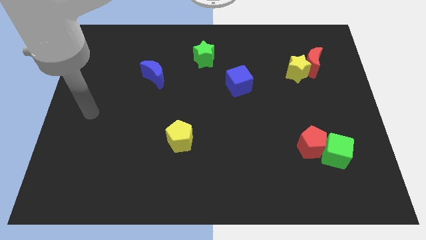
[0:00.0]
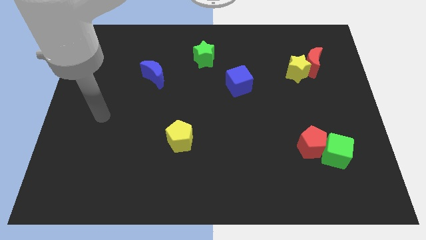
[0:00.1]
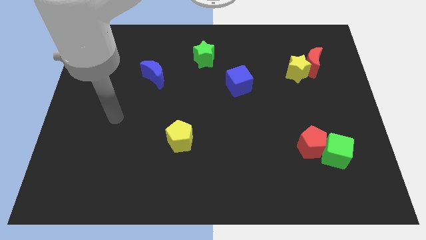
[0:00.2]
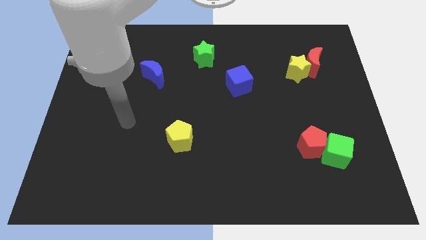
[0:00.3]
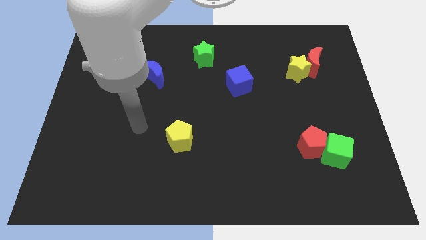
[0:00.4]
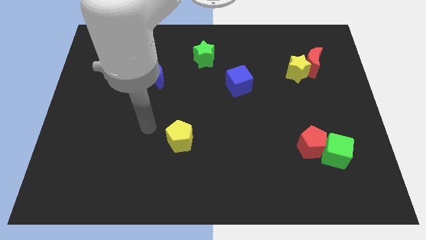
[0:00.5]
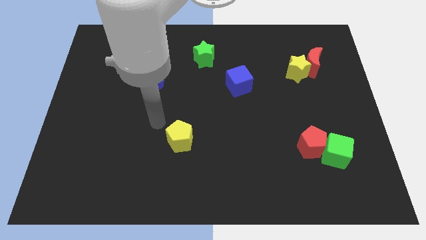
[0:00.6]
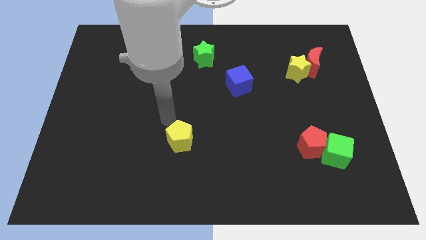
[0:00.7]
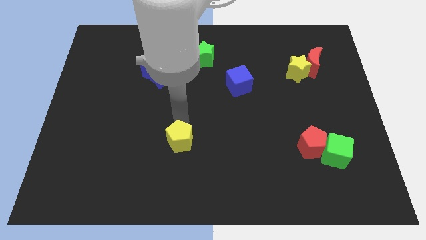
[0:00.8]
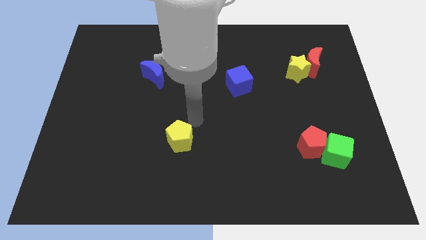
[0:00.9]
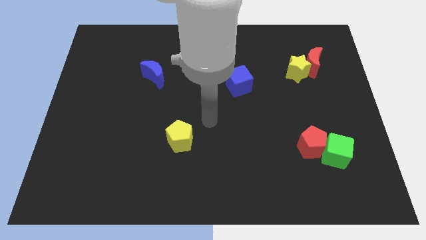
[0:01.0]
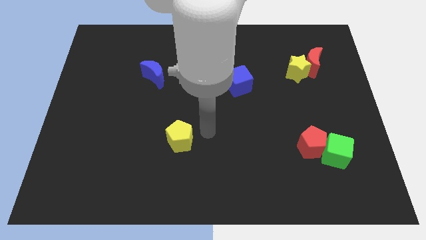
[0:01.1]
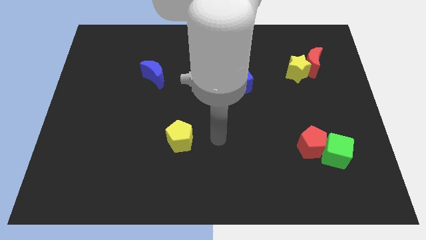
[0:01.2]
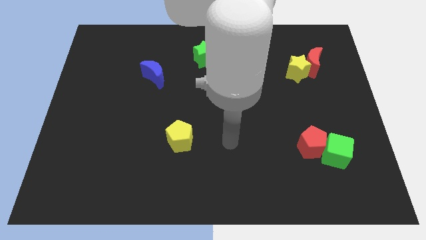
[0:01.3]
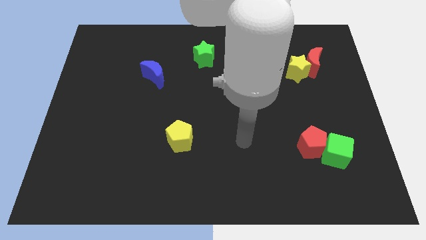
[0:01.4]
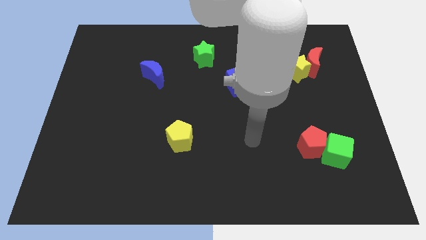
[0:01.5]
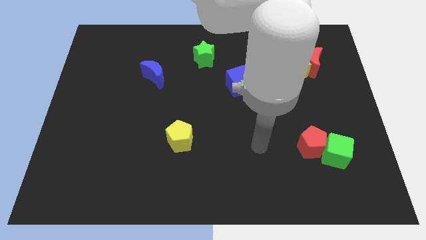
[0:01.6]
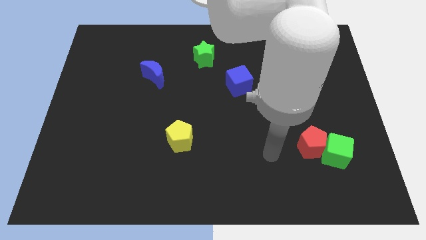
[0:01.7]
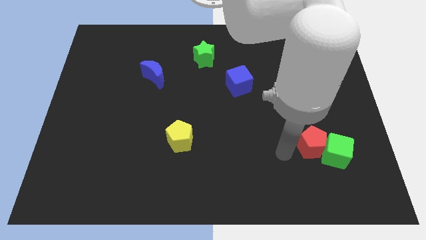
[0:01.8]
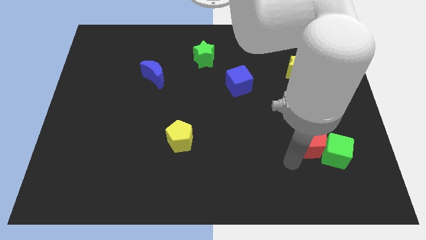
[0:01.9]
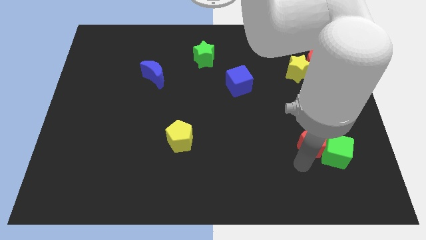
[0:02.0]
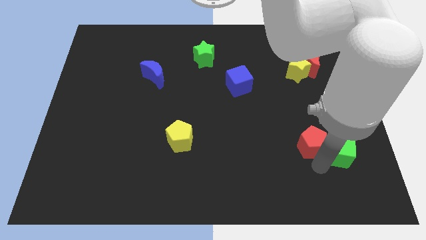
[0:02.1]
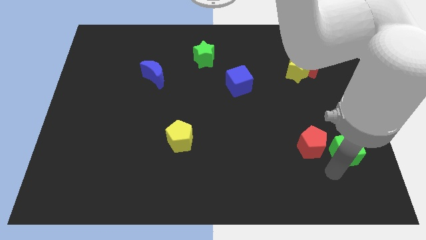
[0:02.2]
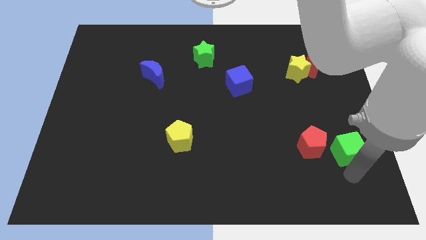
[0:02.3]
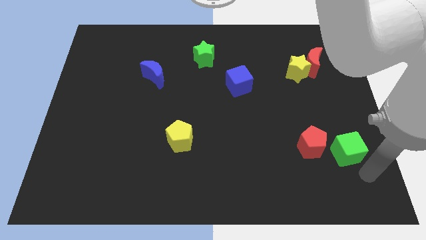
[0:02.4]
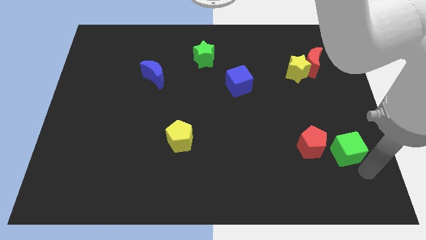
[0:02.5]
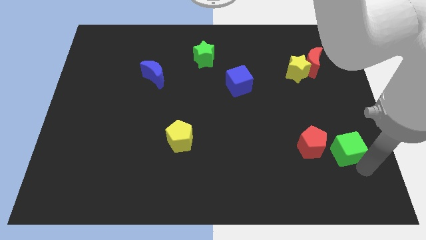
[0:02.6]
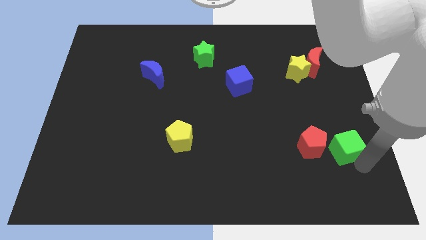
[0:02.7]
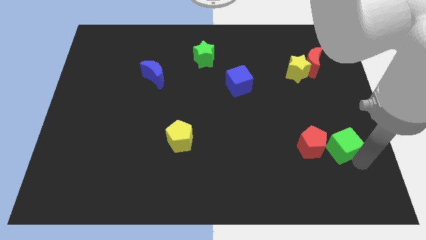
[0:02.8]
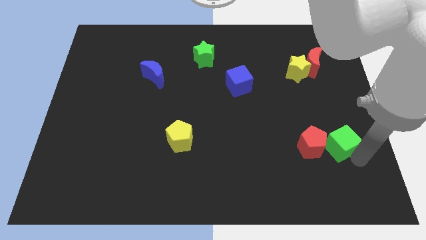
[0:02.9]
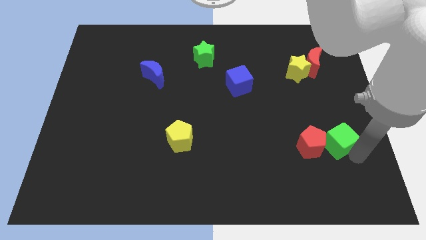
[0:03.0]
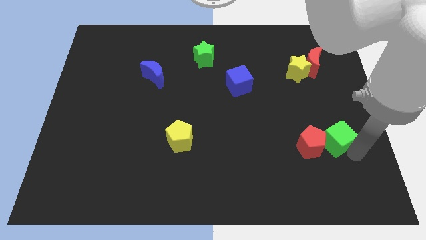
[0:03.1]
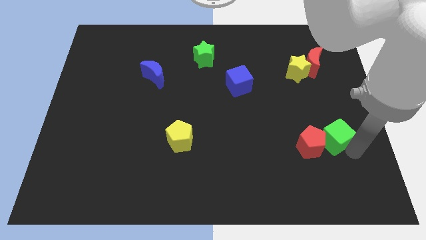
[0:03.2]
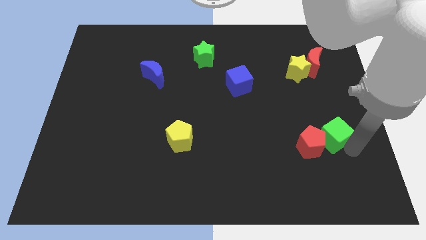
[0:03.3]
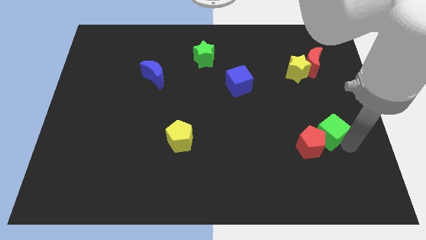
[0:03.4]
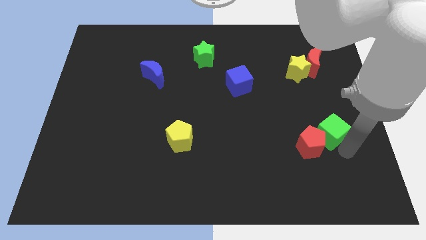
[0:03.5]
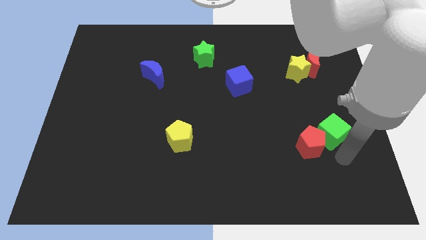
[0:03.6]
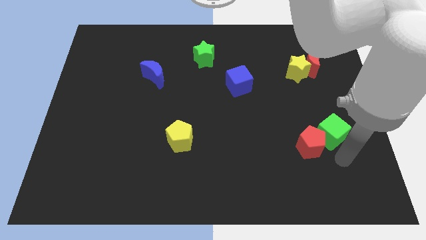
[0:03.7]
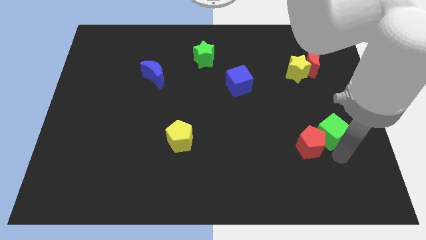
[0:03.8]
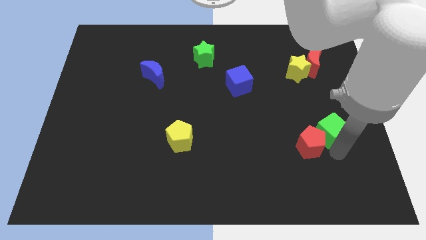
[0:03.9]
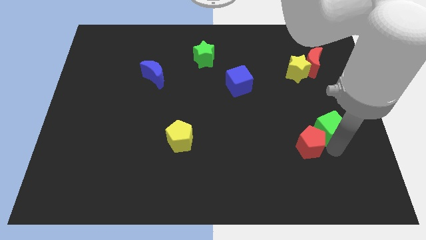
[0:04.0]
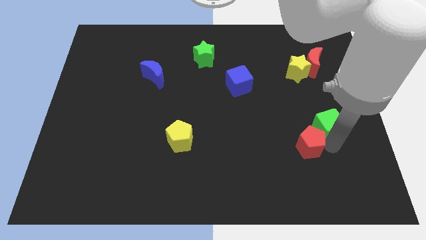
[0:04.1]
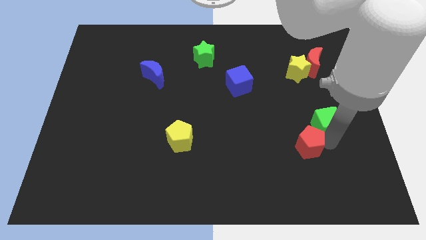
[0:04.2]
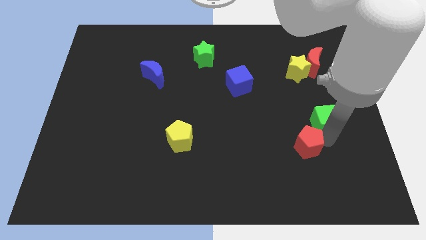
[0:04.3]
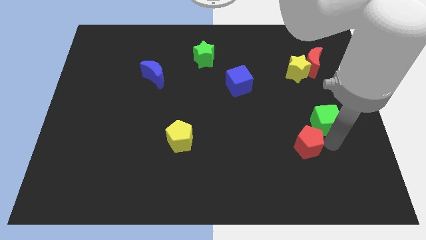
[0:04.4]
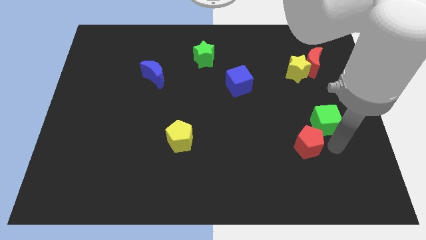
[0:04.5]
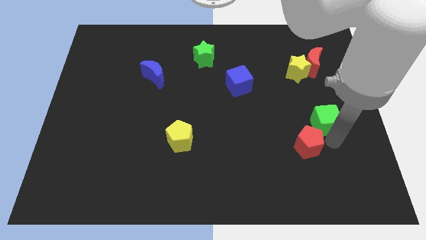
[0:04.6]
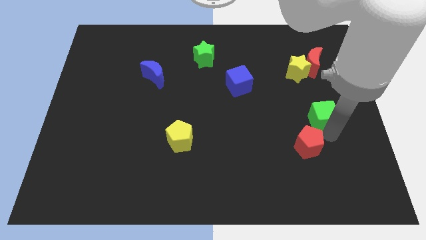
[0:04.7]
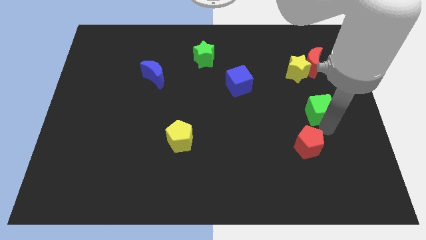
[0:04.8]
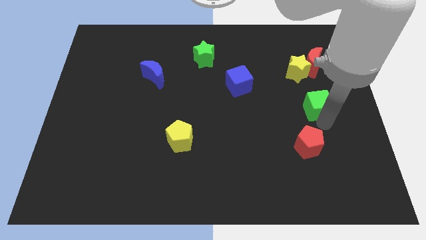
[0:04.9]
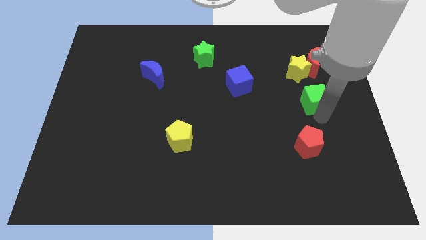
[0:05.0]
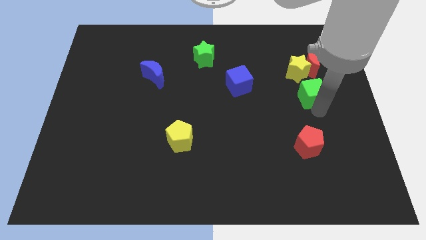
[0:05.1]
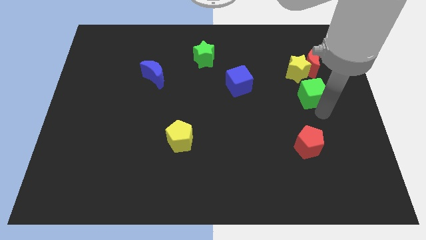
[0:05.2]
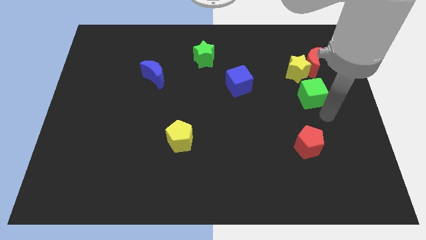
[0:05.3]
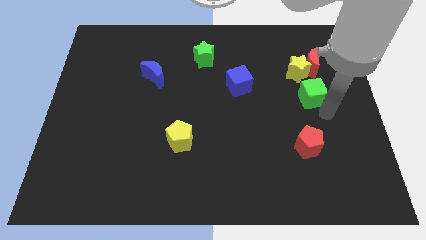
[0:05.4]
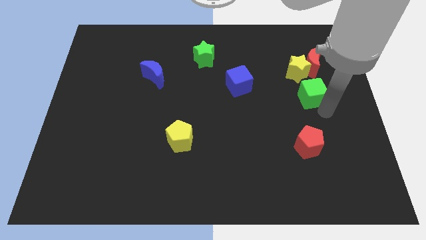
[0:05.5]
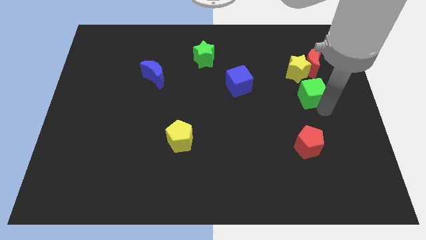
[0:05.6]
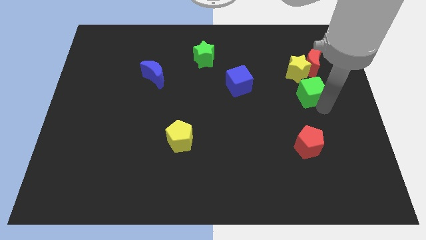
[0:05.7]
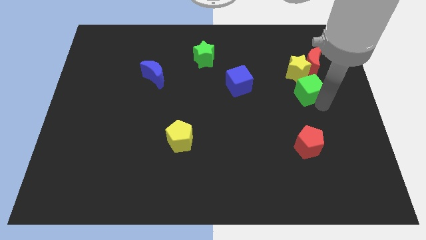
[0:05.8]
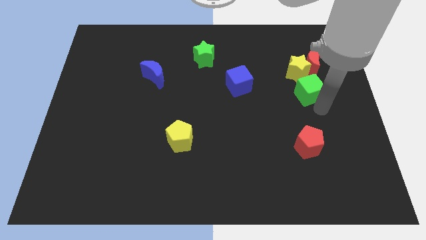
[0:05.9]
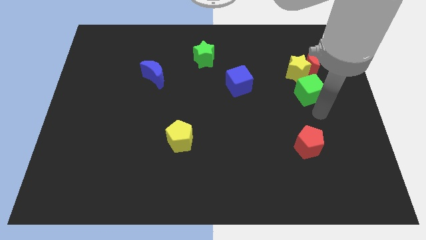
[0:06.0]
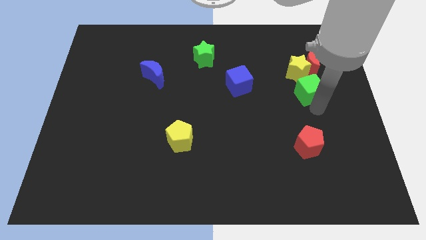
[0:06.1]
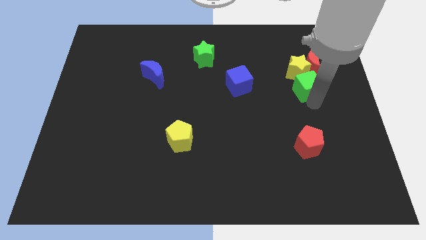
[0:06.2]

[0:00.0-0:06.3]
put the green cube towards the yellow star

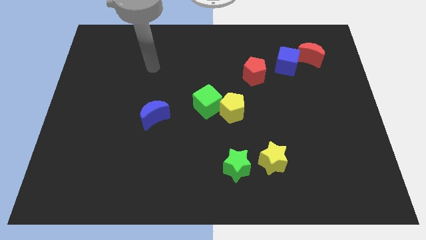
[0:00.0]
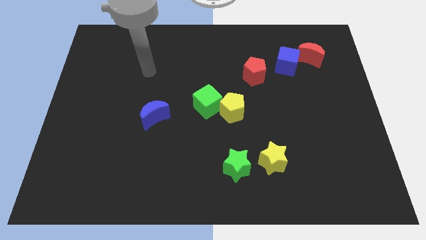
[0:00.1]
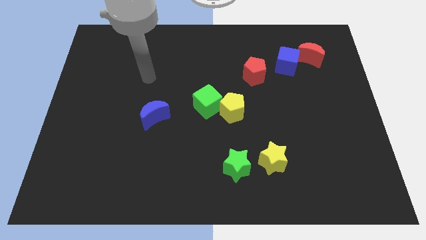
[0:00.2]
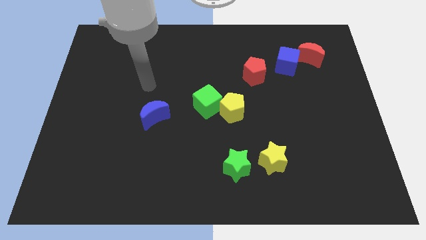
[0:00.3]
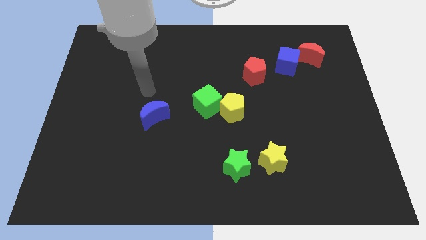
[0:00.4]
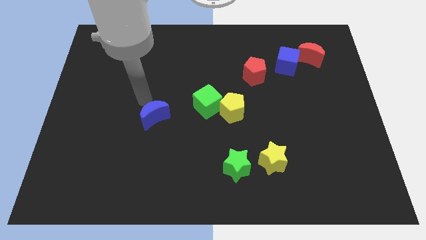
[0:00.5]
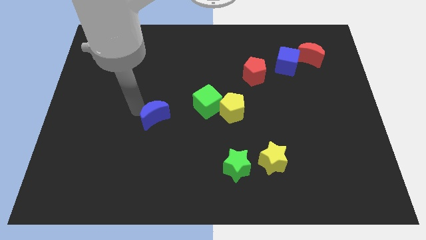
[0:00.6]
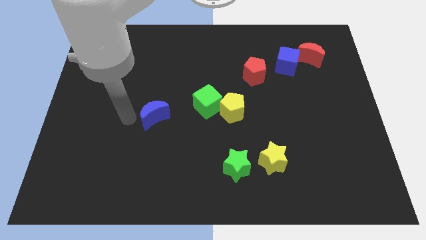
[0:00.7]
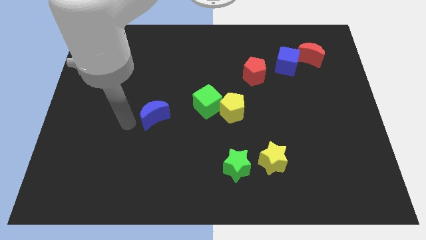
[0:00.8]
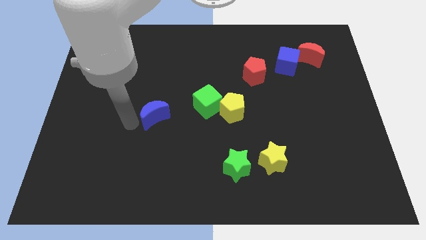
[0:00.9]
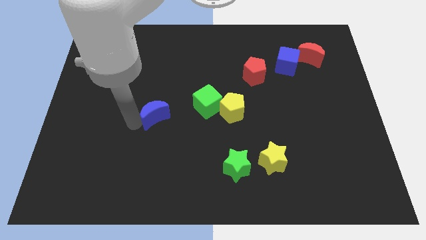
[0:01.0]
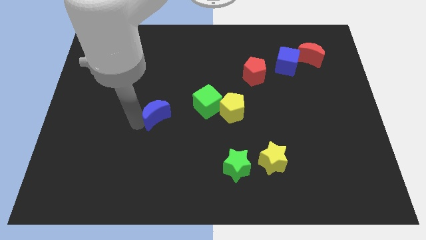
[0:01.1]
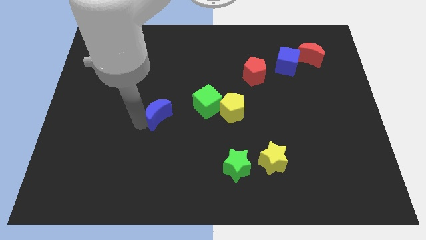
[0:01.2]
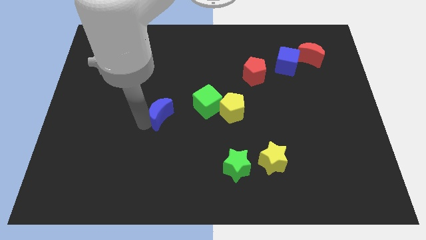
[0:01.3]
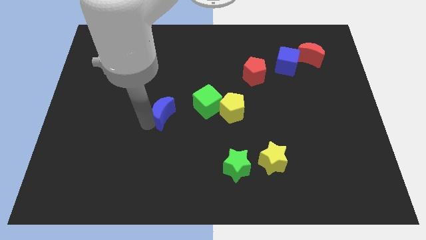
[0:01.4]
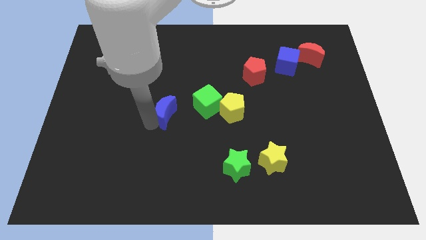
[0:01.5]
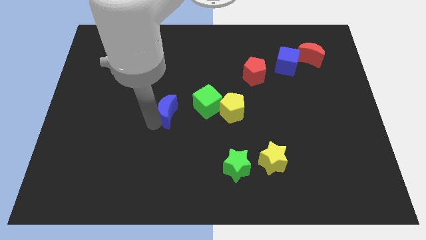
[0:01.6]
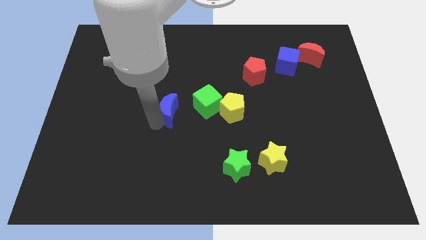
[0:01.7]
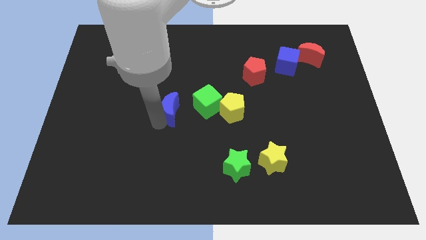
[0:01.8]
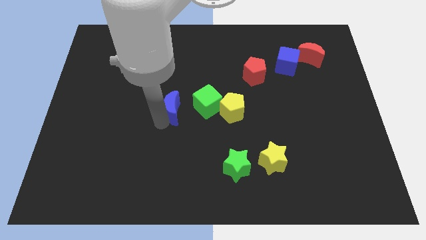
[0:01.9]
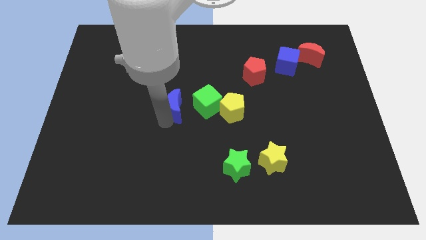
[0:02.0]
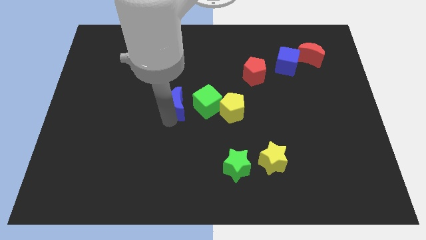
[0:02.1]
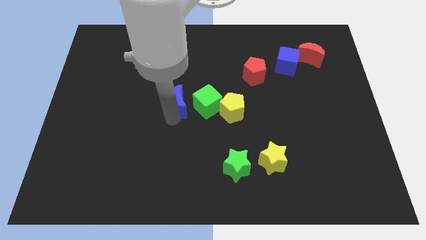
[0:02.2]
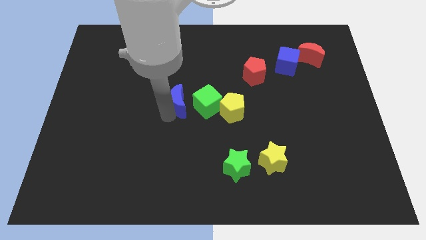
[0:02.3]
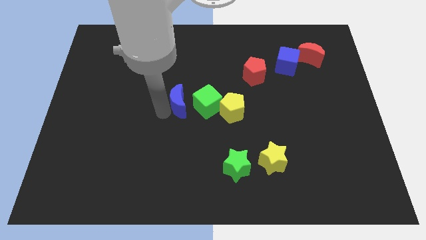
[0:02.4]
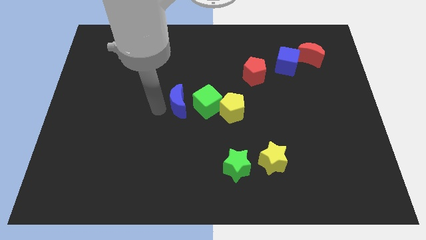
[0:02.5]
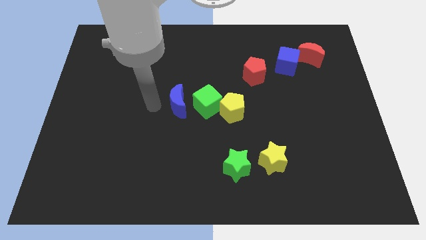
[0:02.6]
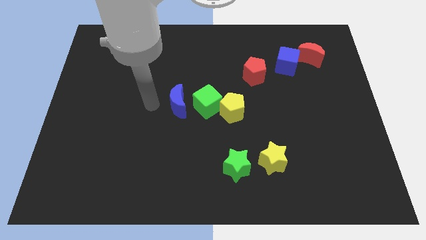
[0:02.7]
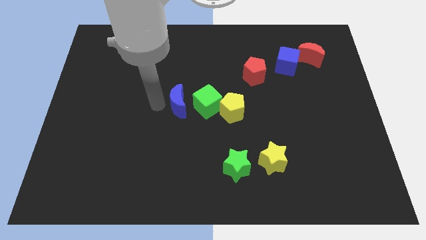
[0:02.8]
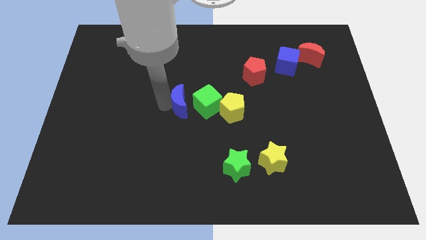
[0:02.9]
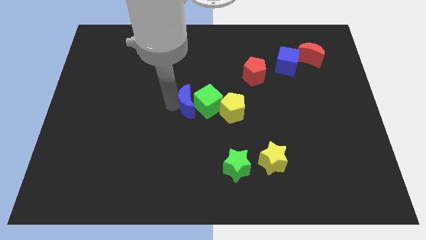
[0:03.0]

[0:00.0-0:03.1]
put the blue moon close to the green cube
